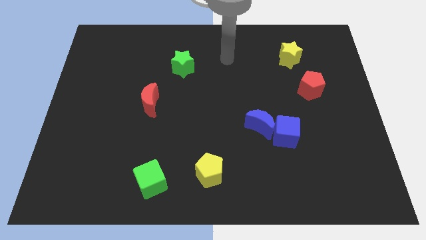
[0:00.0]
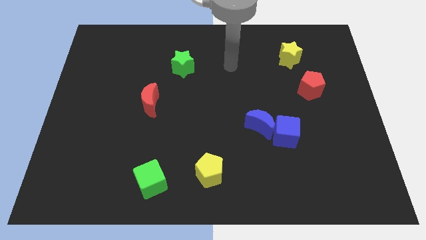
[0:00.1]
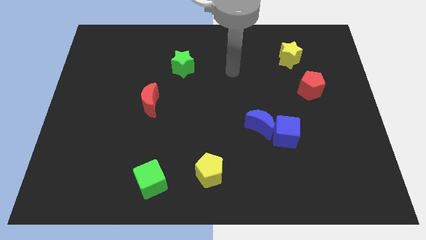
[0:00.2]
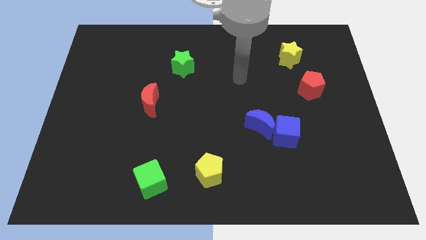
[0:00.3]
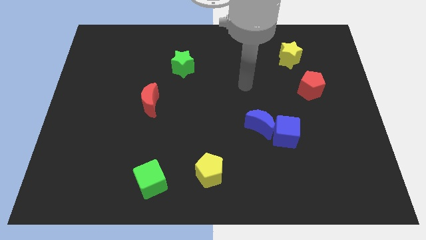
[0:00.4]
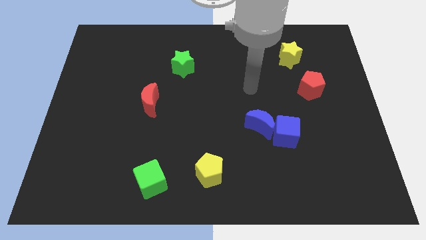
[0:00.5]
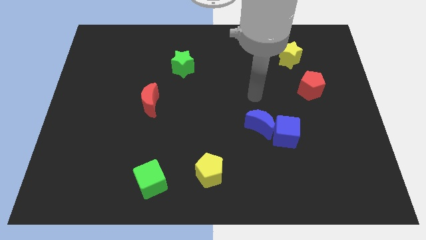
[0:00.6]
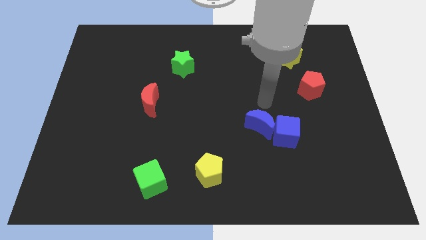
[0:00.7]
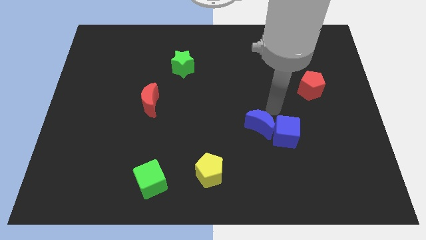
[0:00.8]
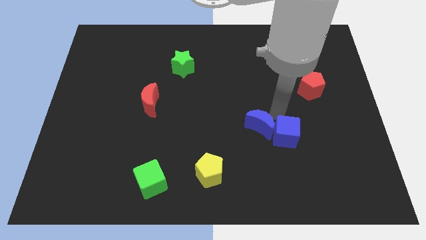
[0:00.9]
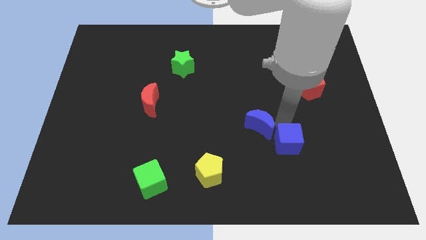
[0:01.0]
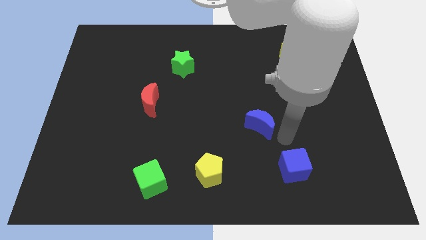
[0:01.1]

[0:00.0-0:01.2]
pull the blue moon apart from the blue cube

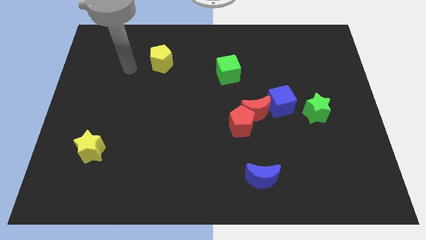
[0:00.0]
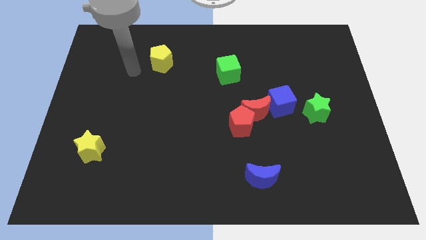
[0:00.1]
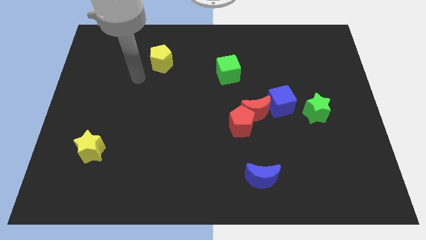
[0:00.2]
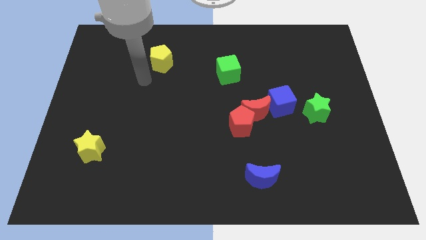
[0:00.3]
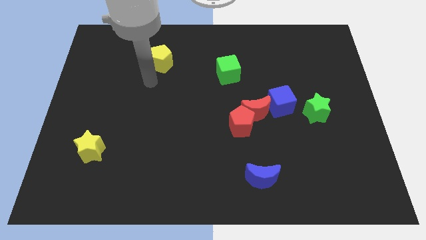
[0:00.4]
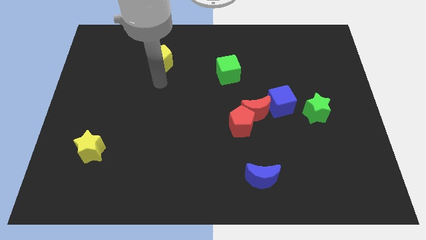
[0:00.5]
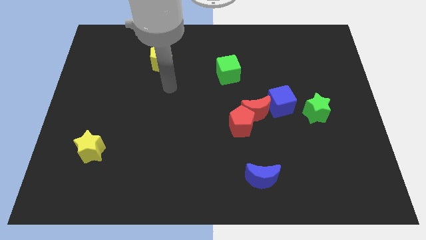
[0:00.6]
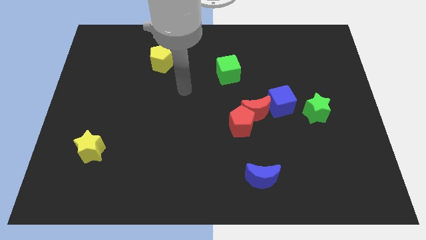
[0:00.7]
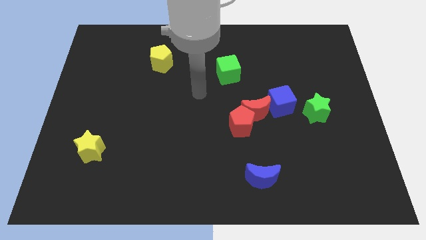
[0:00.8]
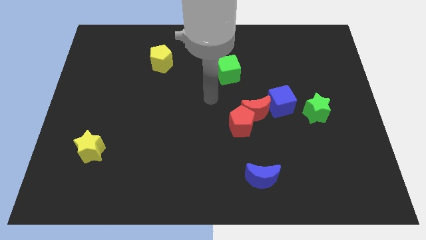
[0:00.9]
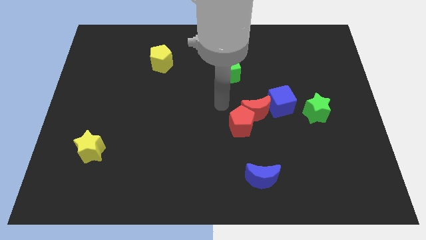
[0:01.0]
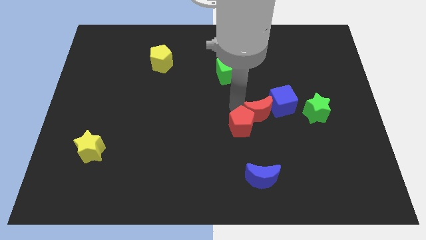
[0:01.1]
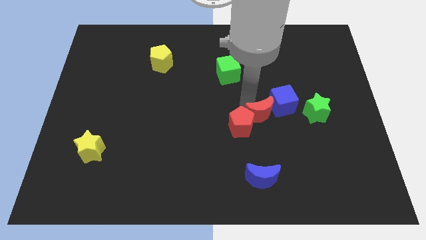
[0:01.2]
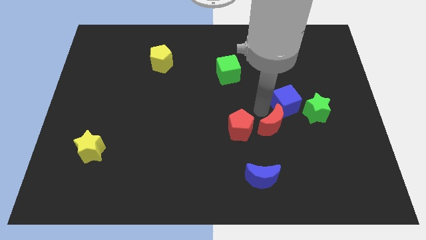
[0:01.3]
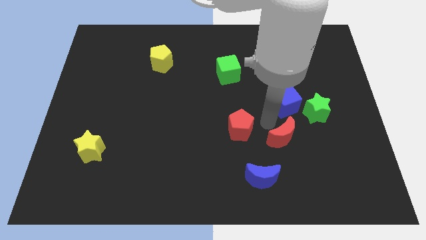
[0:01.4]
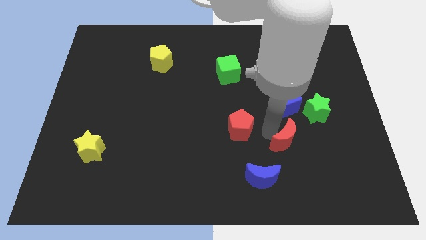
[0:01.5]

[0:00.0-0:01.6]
pull the red pentagon apart from the red moon

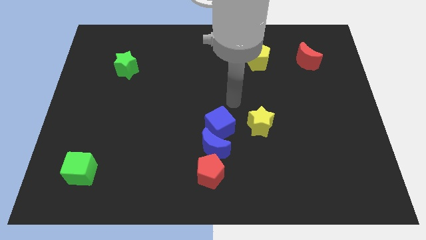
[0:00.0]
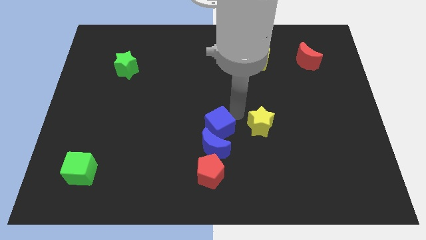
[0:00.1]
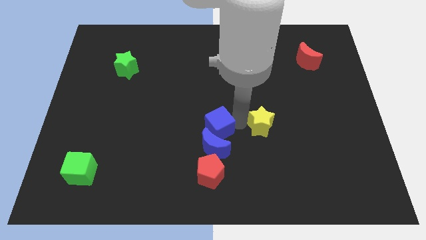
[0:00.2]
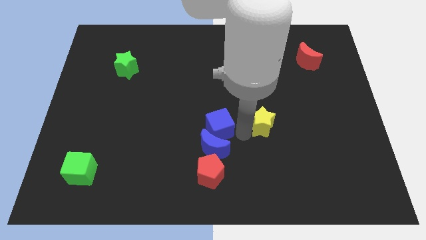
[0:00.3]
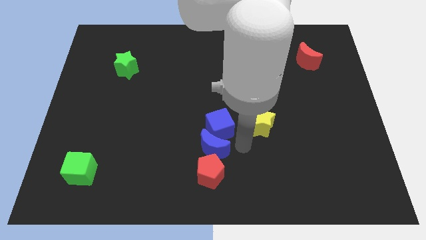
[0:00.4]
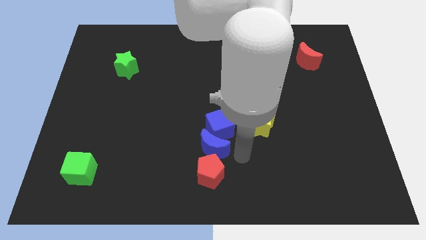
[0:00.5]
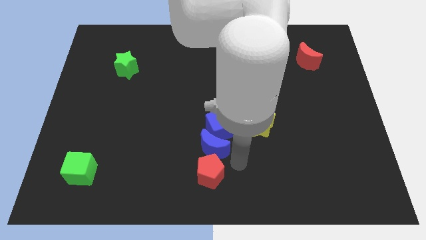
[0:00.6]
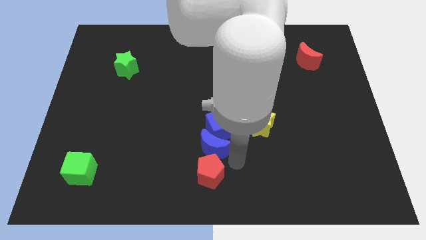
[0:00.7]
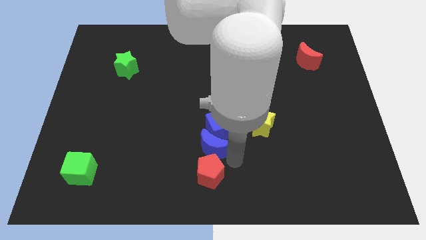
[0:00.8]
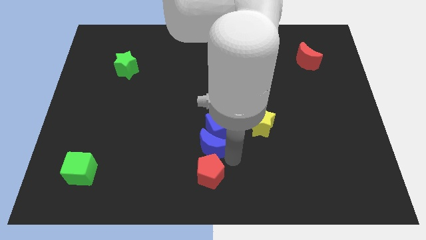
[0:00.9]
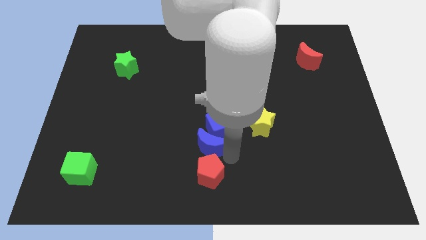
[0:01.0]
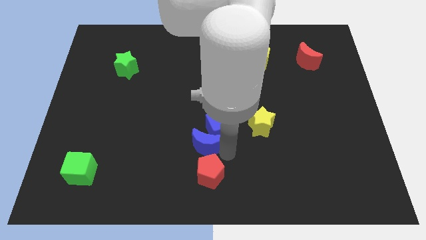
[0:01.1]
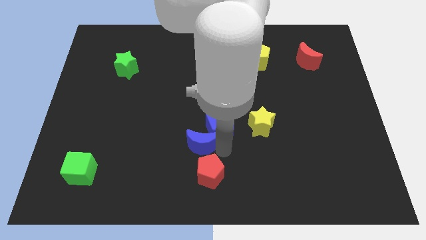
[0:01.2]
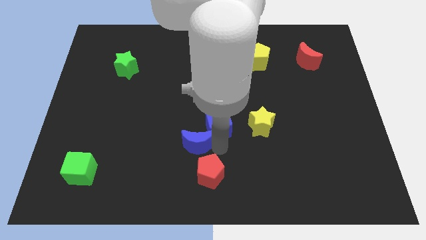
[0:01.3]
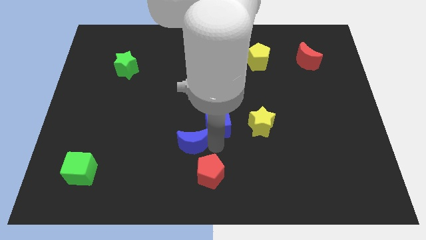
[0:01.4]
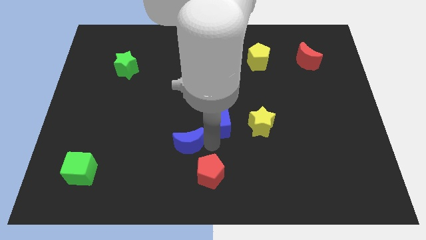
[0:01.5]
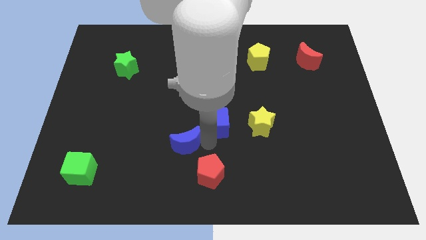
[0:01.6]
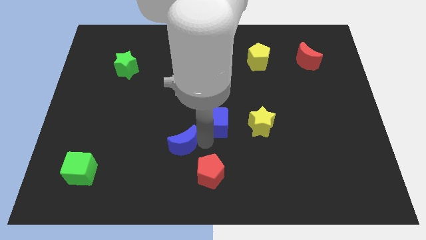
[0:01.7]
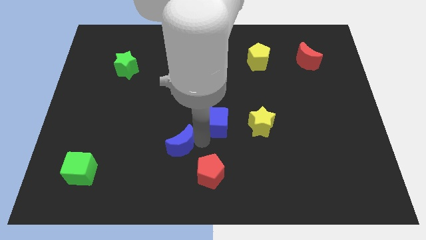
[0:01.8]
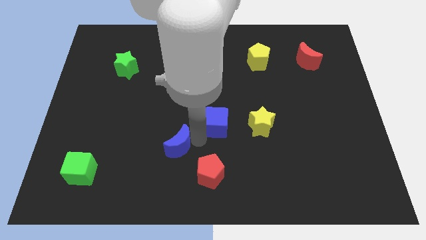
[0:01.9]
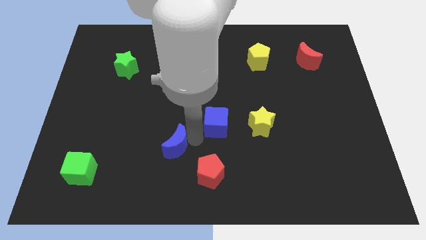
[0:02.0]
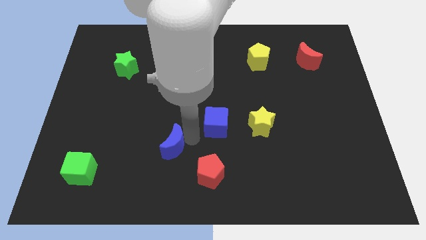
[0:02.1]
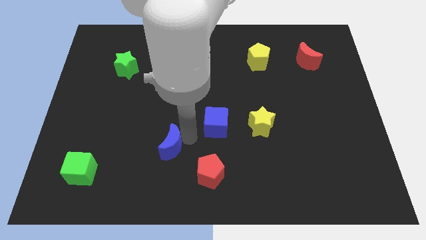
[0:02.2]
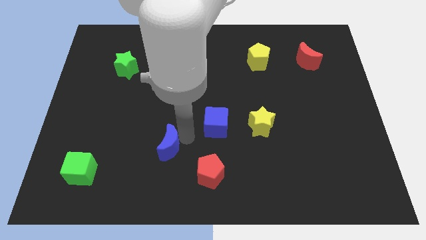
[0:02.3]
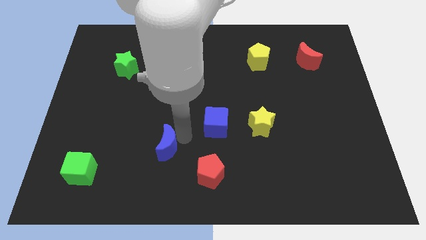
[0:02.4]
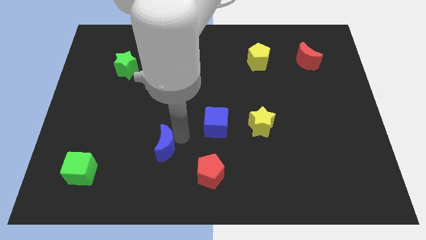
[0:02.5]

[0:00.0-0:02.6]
move the blue moon away from the blue cube and red pentagon

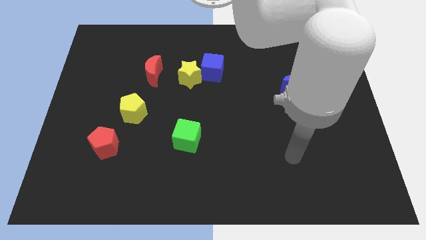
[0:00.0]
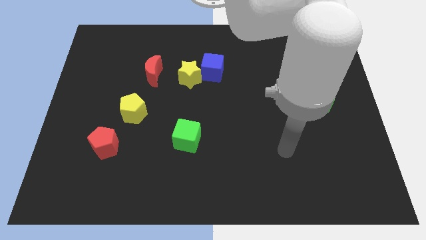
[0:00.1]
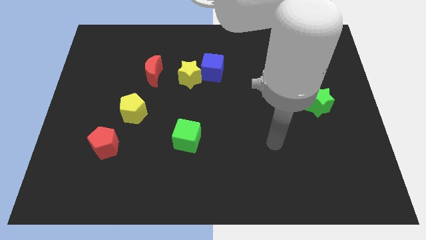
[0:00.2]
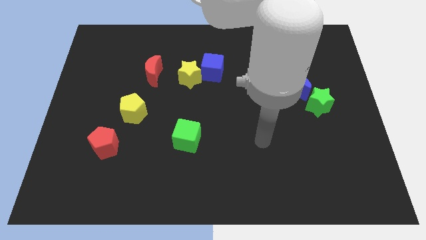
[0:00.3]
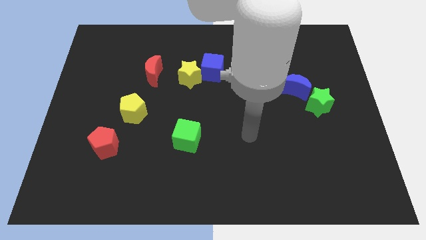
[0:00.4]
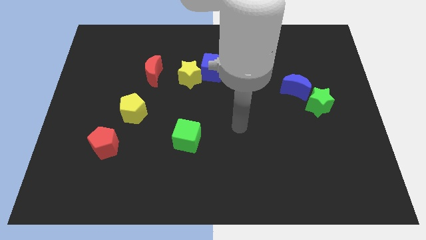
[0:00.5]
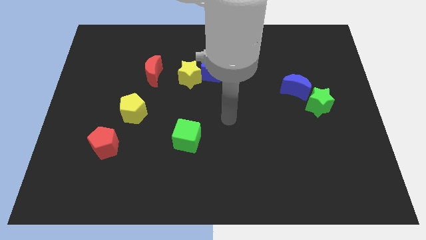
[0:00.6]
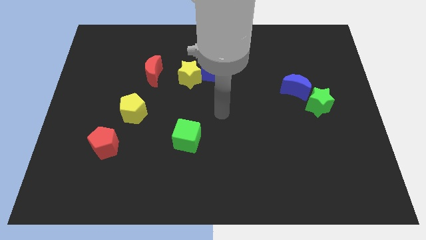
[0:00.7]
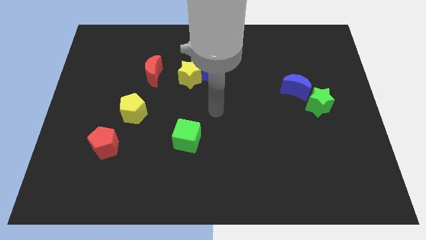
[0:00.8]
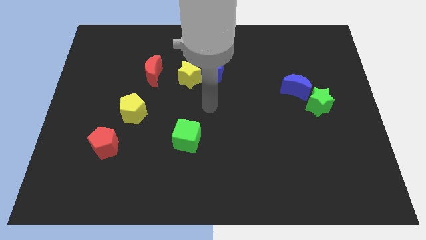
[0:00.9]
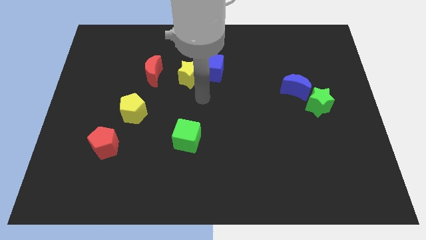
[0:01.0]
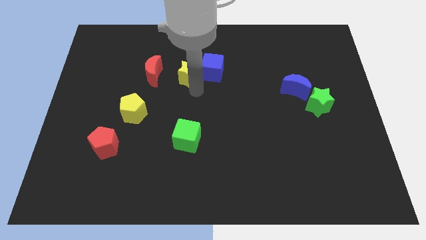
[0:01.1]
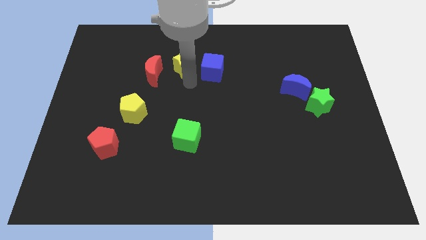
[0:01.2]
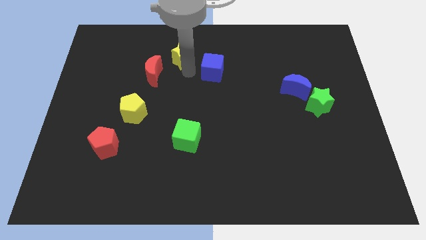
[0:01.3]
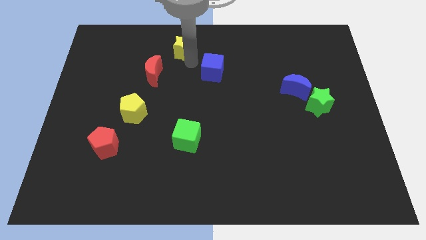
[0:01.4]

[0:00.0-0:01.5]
separate the blue cube from the yellow star

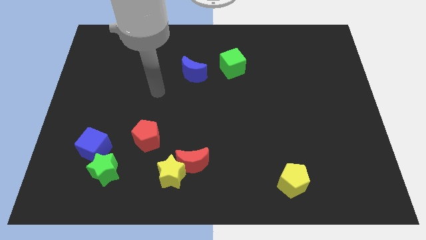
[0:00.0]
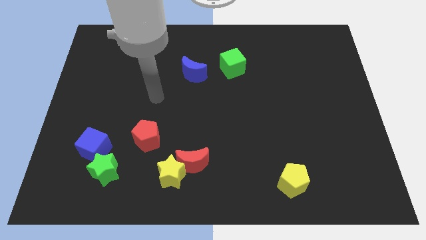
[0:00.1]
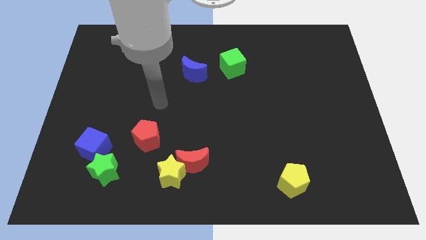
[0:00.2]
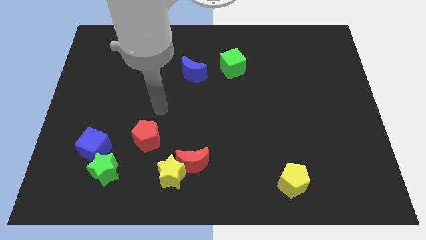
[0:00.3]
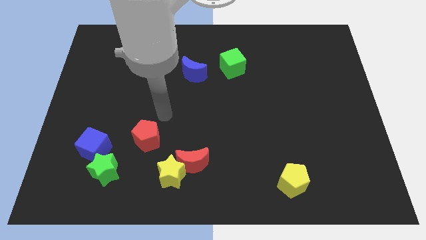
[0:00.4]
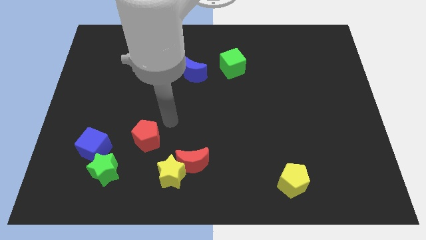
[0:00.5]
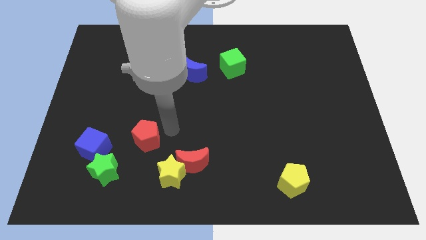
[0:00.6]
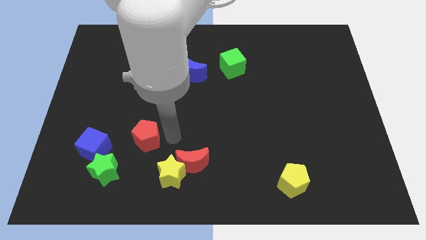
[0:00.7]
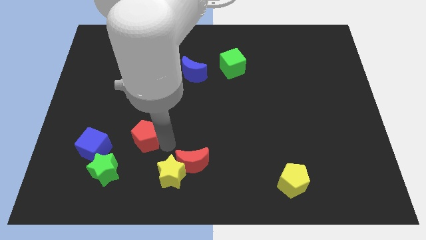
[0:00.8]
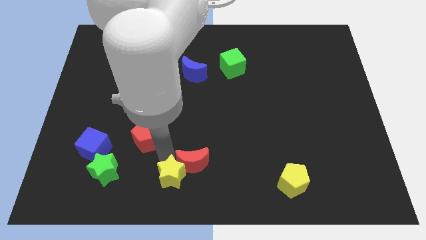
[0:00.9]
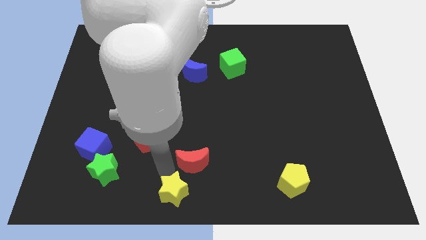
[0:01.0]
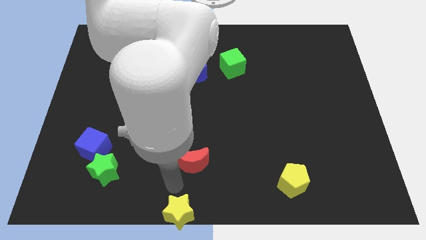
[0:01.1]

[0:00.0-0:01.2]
move the red moon away from the yellow star

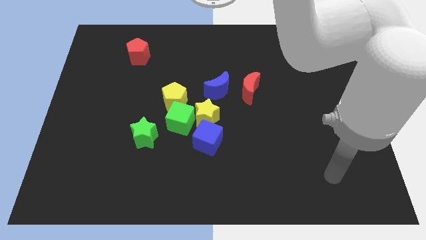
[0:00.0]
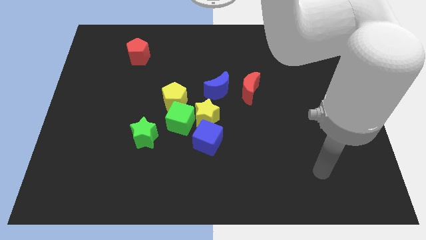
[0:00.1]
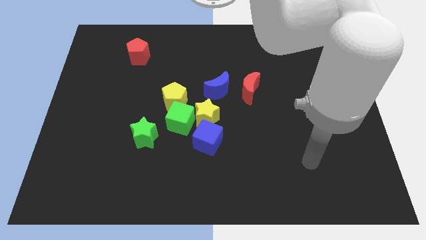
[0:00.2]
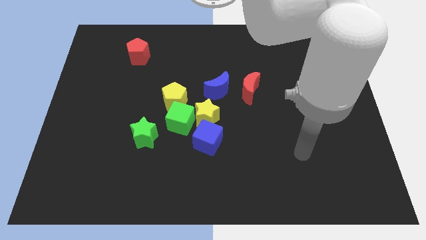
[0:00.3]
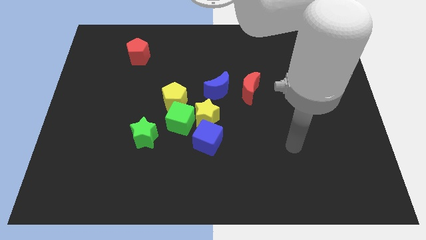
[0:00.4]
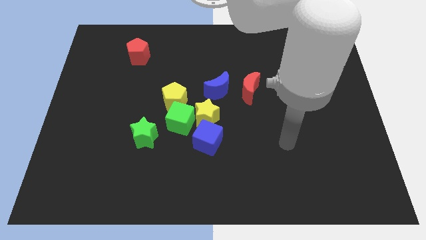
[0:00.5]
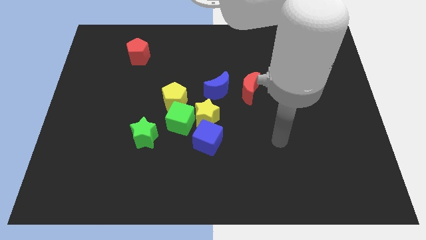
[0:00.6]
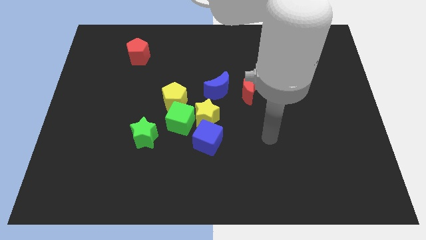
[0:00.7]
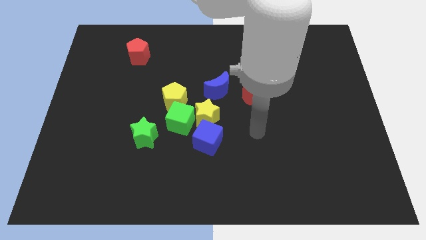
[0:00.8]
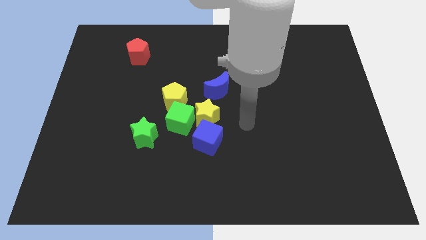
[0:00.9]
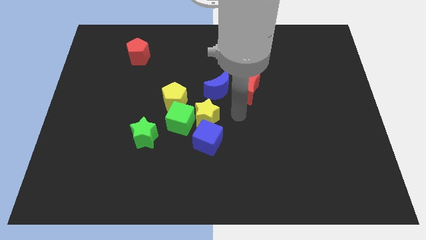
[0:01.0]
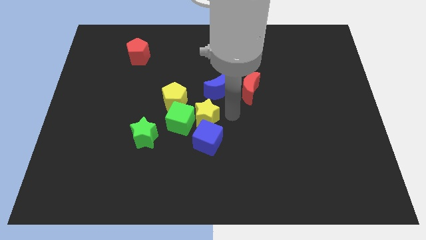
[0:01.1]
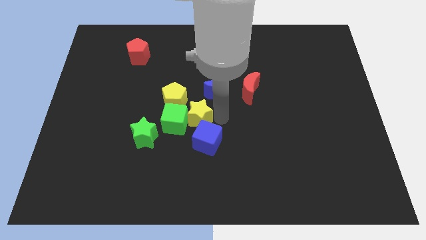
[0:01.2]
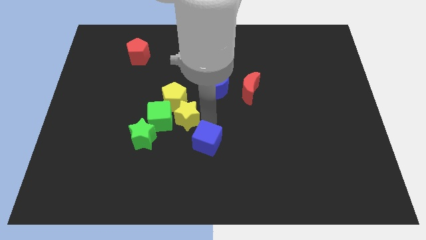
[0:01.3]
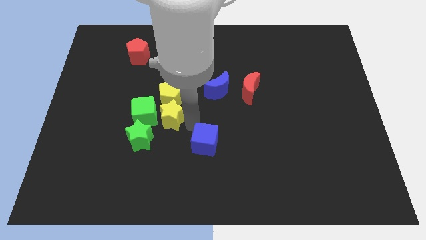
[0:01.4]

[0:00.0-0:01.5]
move the blue cube away from the yellow star and green cube
